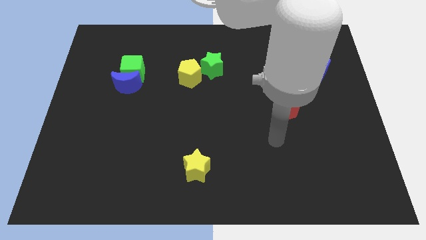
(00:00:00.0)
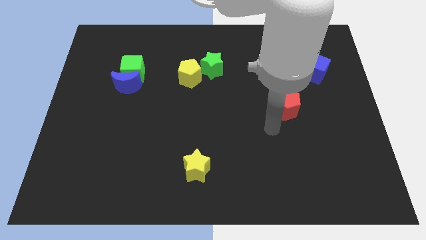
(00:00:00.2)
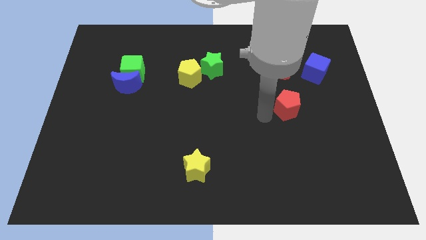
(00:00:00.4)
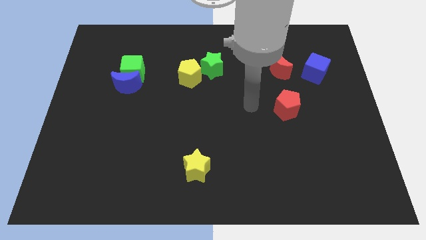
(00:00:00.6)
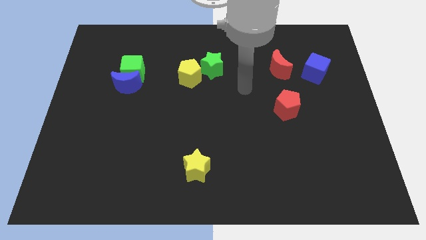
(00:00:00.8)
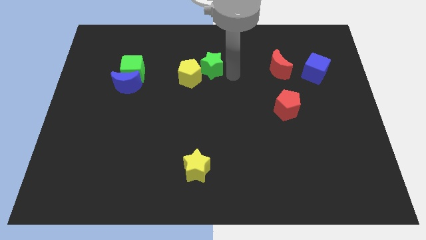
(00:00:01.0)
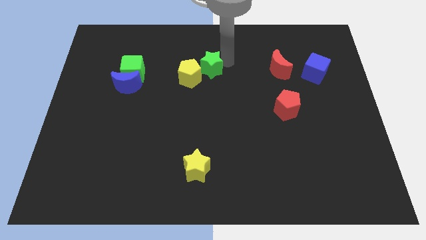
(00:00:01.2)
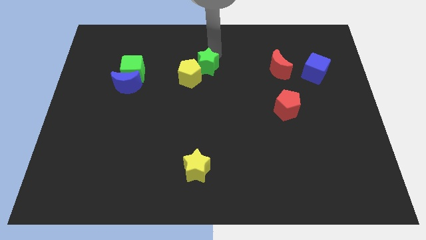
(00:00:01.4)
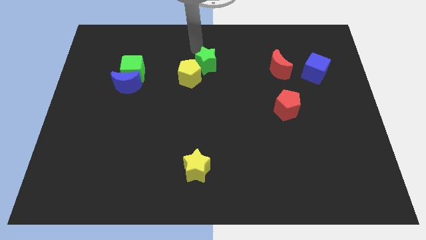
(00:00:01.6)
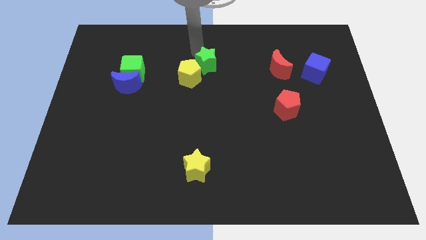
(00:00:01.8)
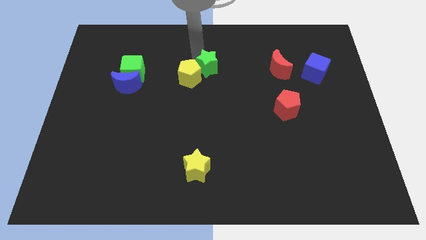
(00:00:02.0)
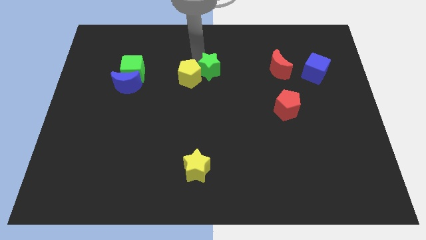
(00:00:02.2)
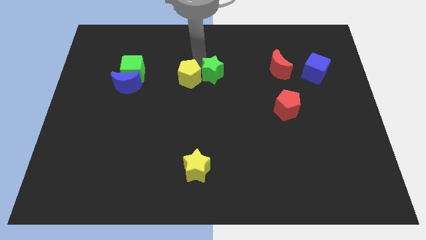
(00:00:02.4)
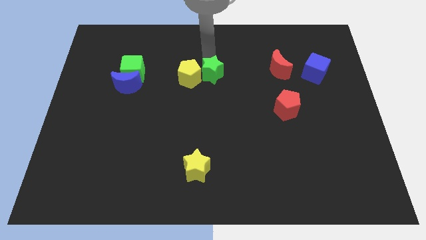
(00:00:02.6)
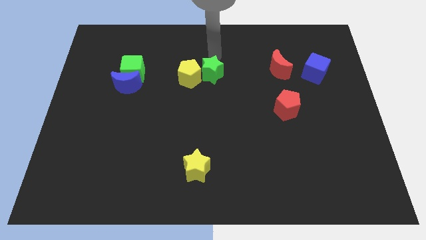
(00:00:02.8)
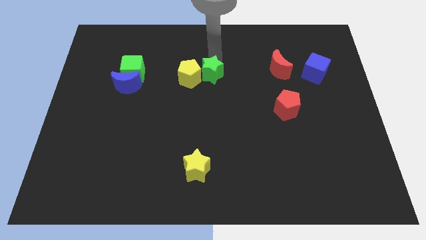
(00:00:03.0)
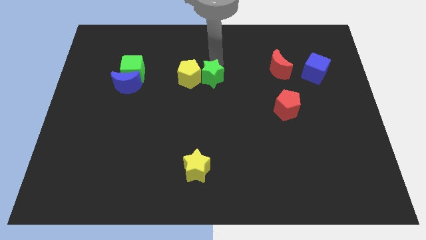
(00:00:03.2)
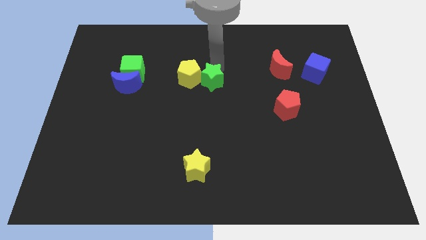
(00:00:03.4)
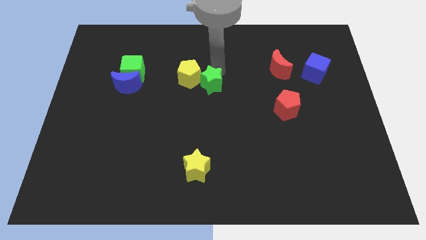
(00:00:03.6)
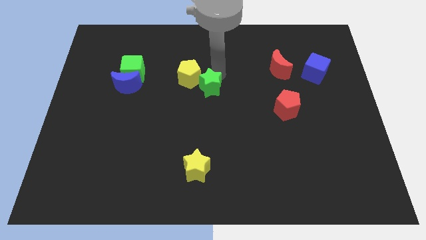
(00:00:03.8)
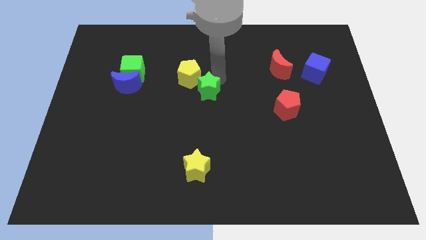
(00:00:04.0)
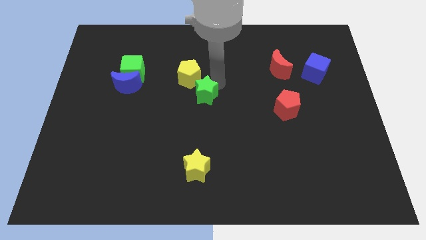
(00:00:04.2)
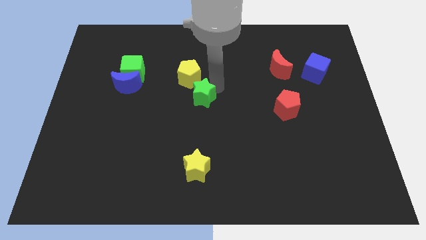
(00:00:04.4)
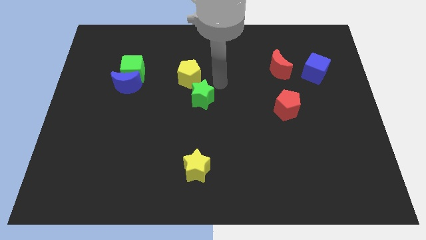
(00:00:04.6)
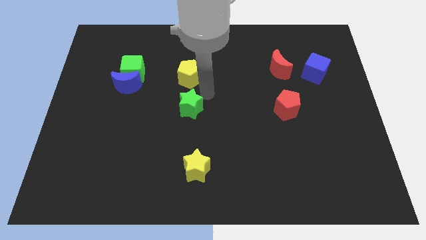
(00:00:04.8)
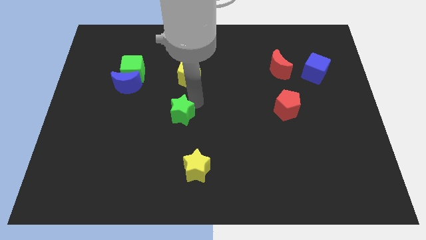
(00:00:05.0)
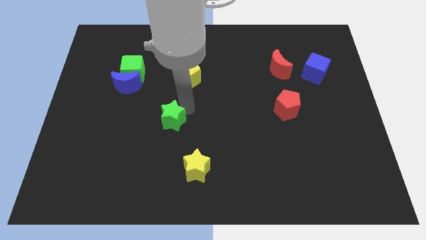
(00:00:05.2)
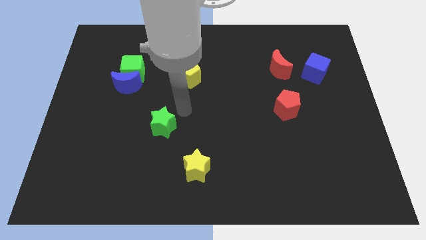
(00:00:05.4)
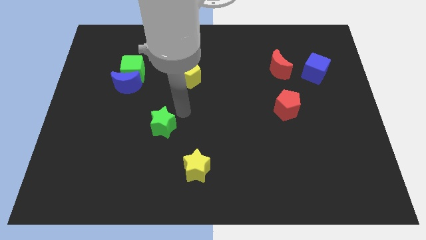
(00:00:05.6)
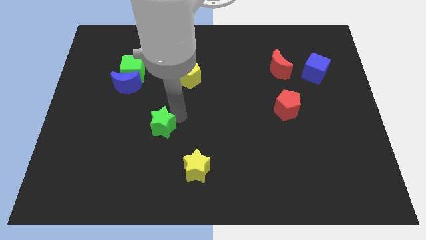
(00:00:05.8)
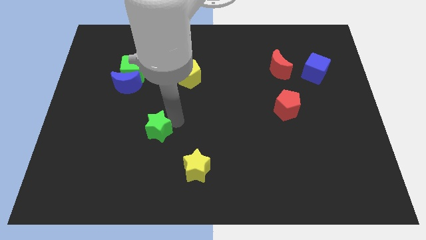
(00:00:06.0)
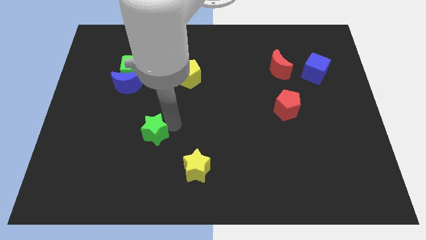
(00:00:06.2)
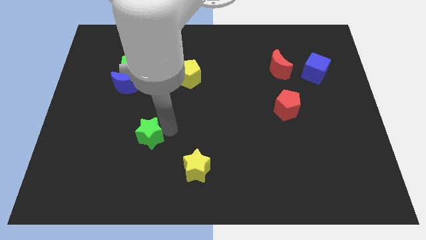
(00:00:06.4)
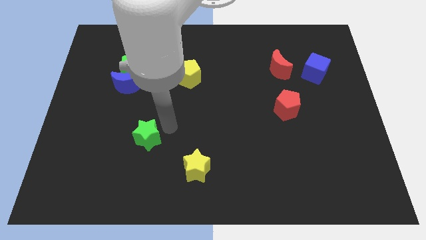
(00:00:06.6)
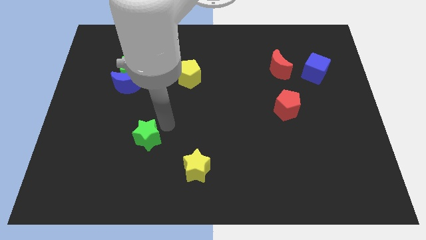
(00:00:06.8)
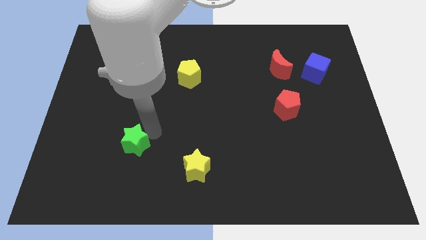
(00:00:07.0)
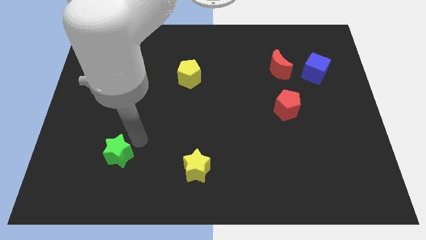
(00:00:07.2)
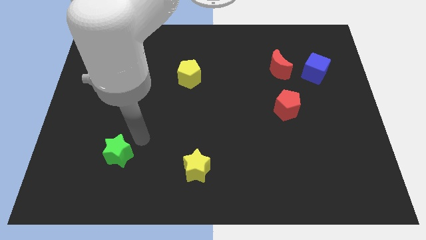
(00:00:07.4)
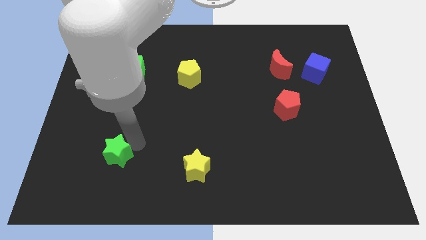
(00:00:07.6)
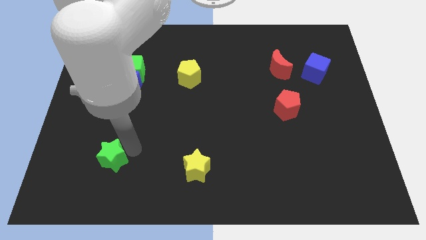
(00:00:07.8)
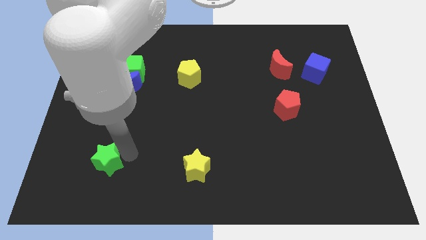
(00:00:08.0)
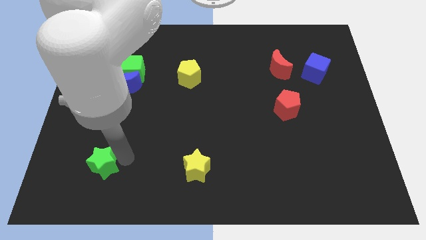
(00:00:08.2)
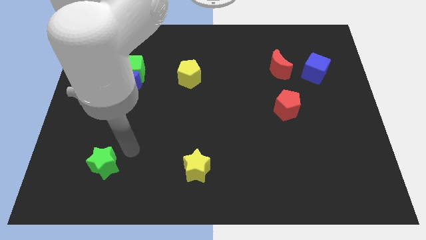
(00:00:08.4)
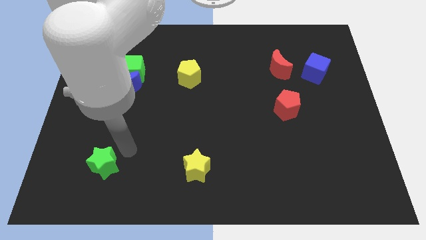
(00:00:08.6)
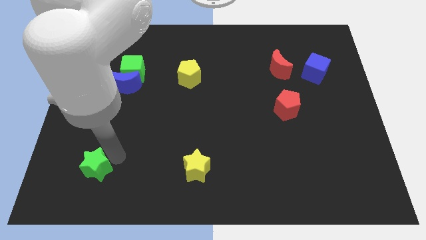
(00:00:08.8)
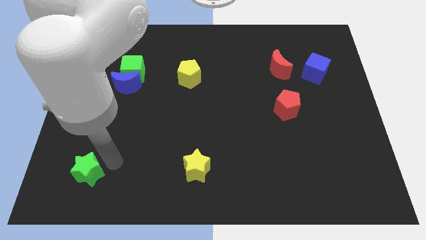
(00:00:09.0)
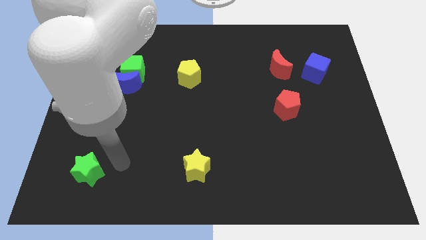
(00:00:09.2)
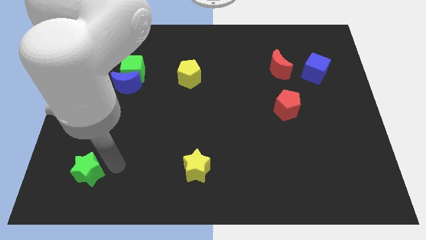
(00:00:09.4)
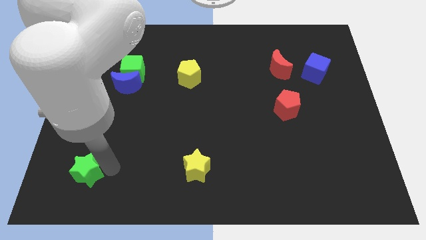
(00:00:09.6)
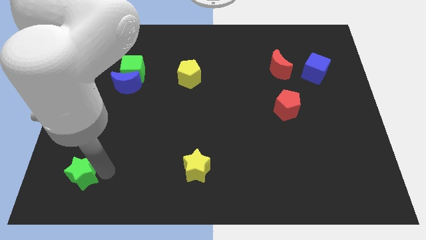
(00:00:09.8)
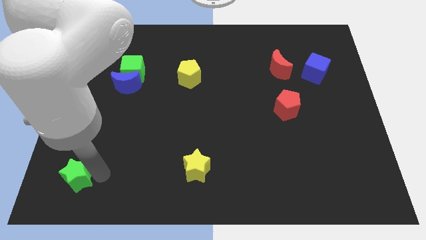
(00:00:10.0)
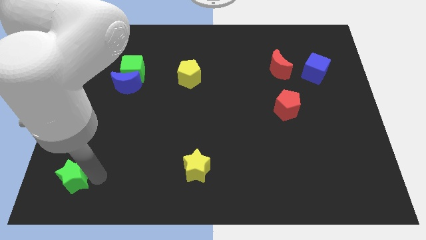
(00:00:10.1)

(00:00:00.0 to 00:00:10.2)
move the green star to the bottom left of the board

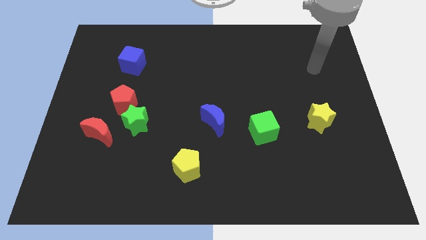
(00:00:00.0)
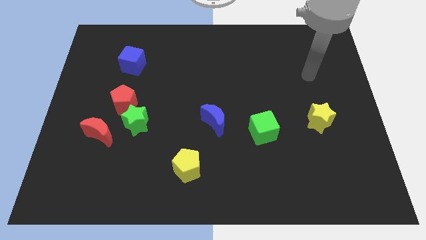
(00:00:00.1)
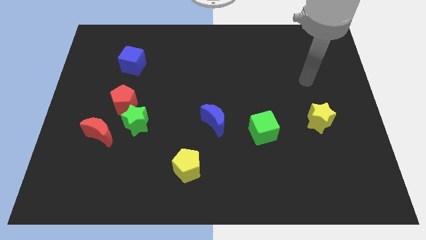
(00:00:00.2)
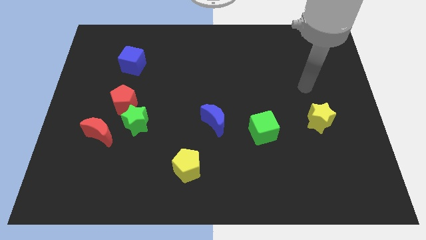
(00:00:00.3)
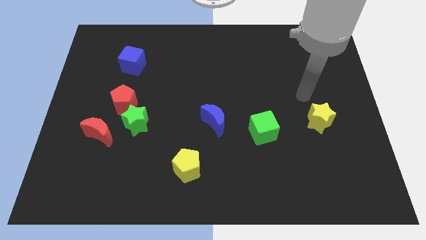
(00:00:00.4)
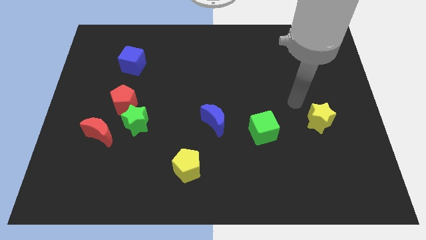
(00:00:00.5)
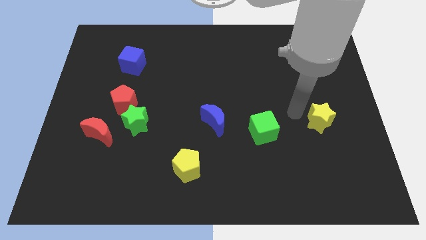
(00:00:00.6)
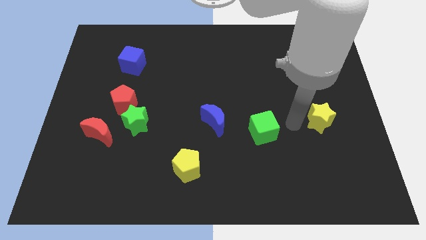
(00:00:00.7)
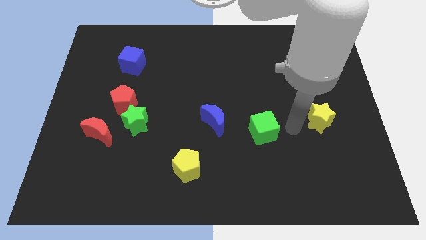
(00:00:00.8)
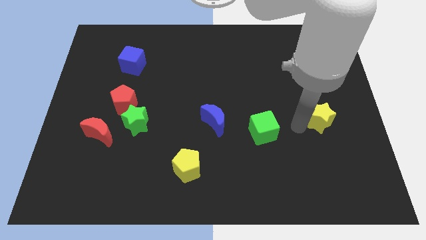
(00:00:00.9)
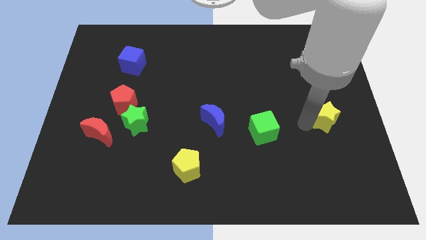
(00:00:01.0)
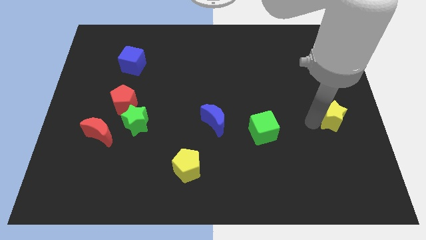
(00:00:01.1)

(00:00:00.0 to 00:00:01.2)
move the yellow star to the right side
